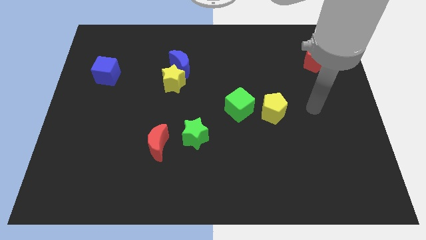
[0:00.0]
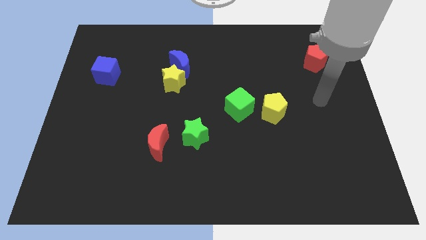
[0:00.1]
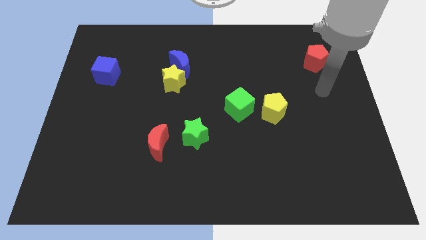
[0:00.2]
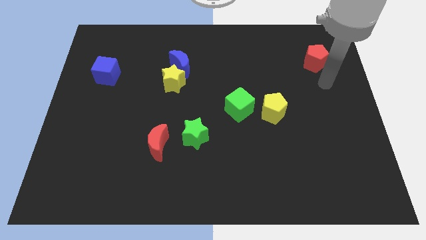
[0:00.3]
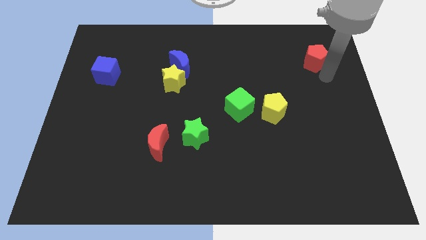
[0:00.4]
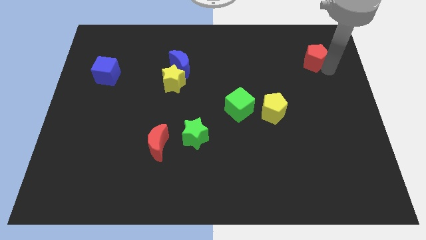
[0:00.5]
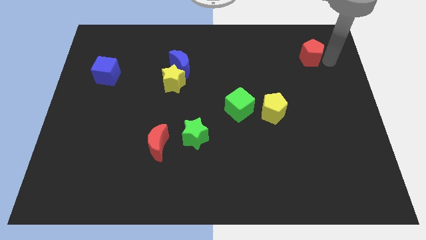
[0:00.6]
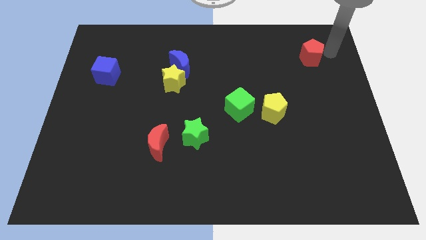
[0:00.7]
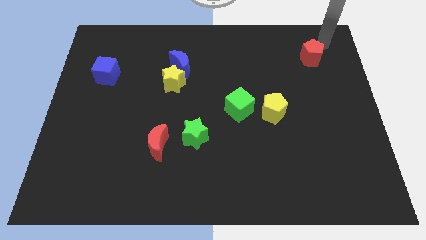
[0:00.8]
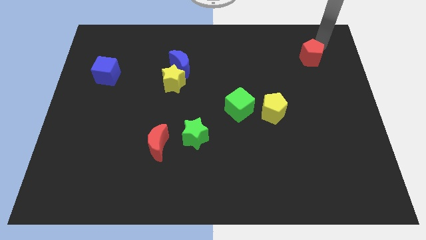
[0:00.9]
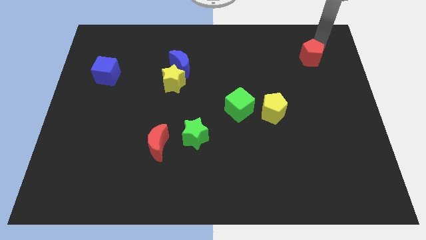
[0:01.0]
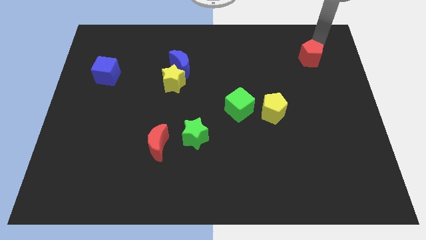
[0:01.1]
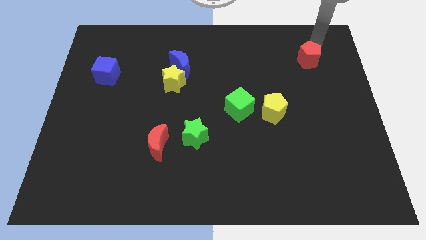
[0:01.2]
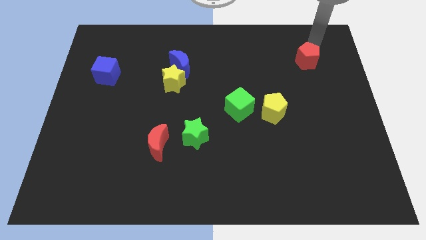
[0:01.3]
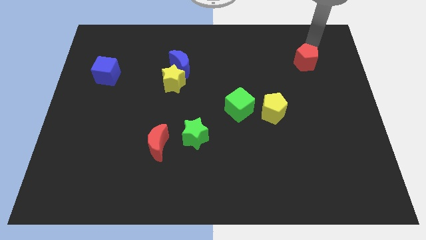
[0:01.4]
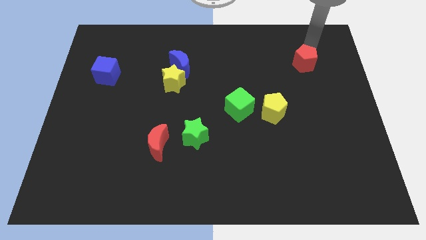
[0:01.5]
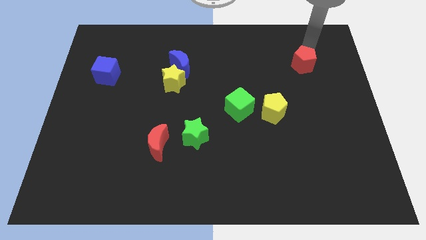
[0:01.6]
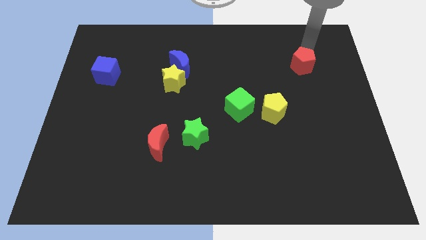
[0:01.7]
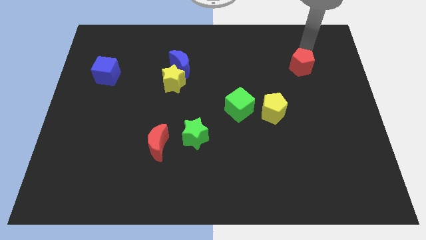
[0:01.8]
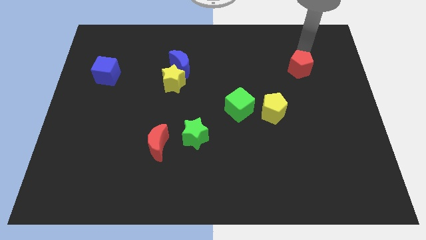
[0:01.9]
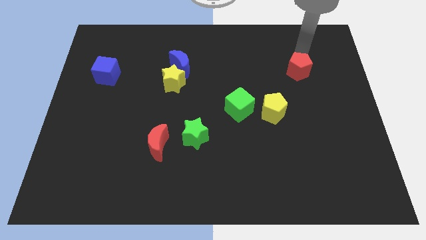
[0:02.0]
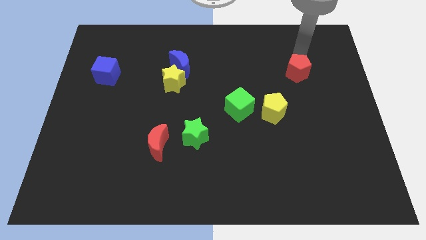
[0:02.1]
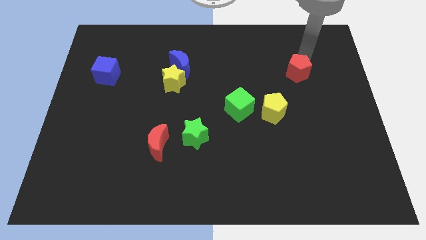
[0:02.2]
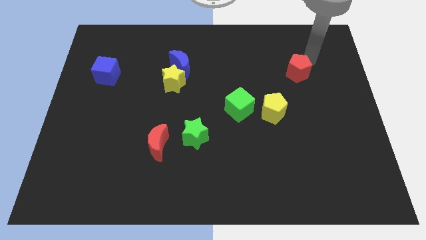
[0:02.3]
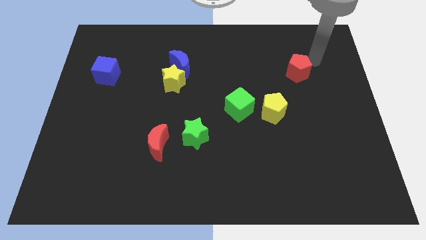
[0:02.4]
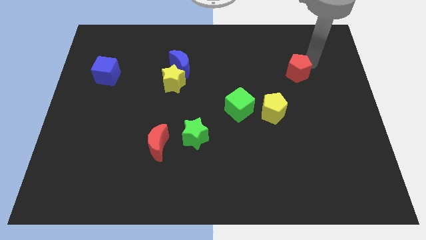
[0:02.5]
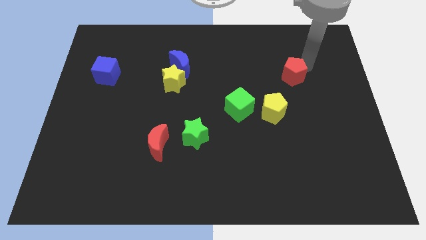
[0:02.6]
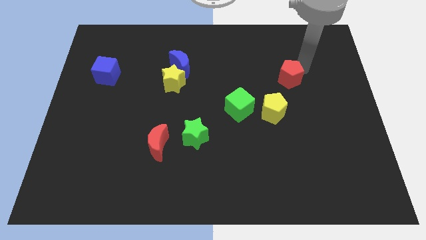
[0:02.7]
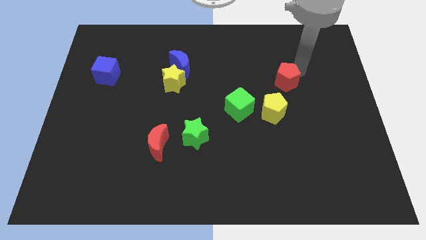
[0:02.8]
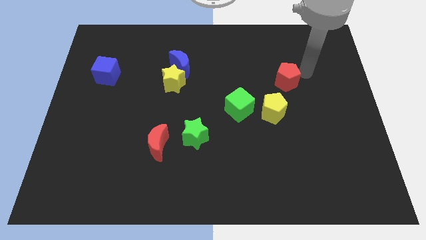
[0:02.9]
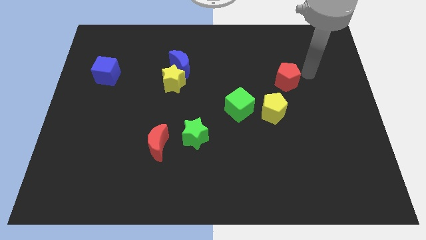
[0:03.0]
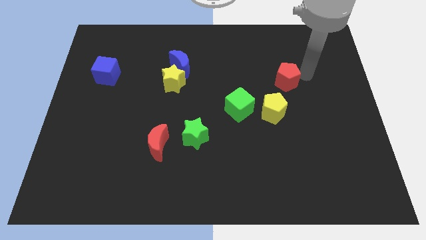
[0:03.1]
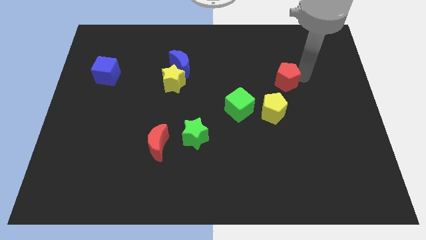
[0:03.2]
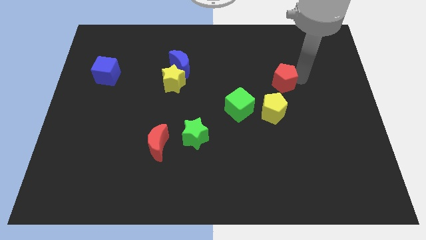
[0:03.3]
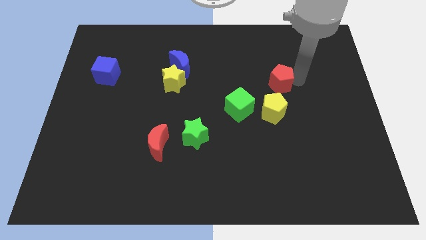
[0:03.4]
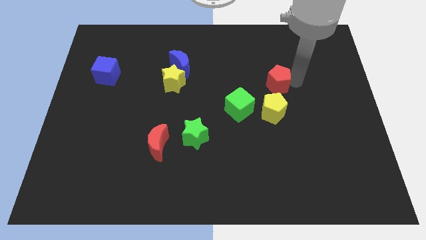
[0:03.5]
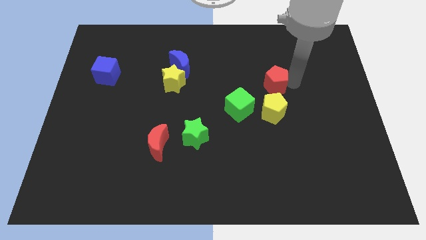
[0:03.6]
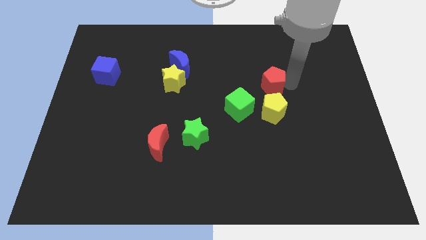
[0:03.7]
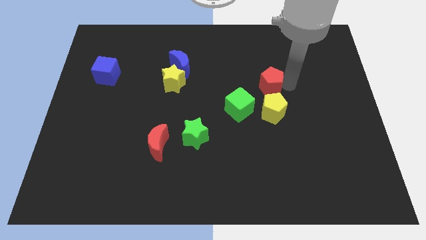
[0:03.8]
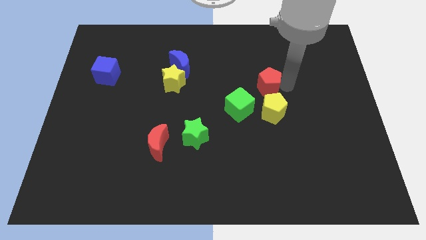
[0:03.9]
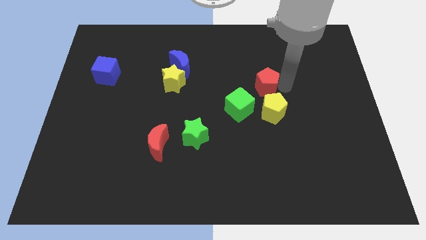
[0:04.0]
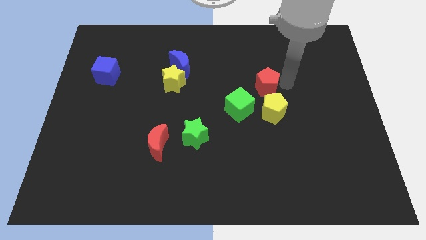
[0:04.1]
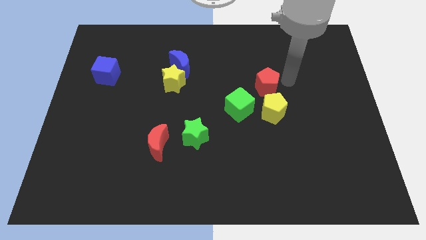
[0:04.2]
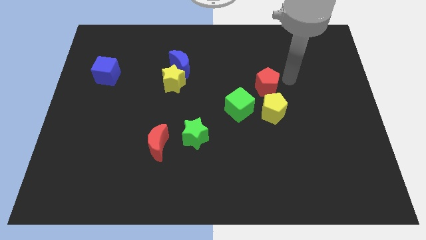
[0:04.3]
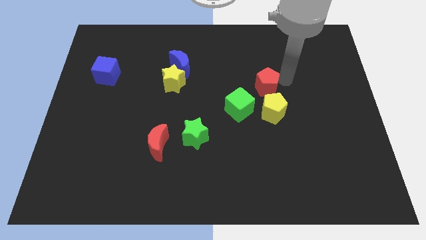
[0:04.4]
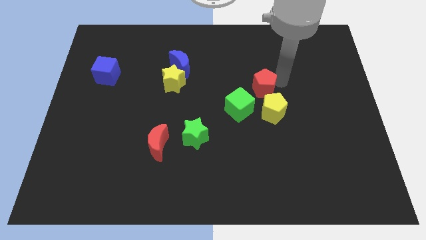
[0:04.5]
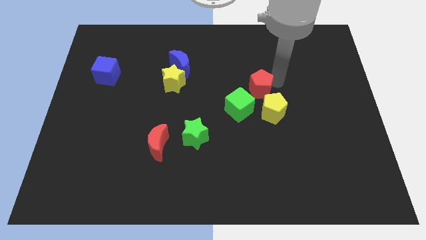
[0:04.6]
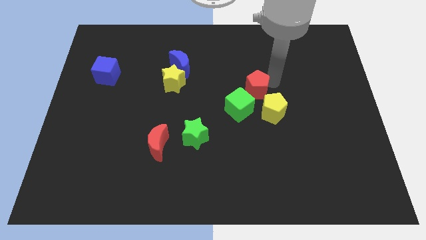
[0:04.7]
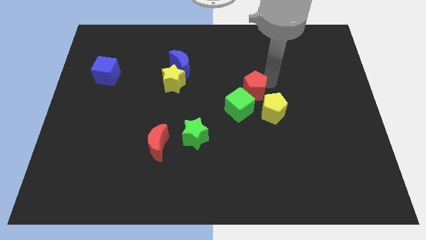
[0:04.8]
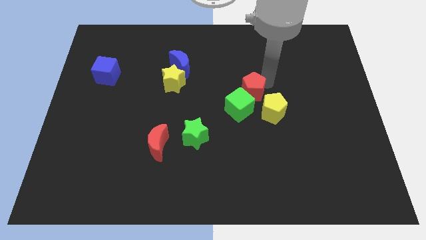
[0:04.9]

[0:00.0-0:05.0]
move the red pentagon next to the green cube

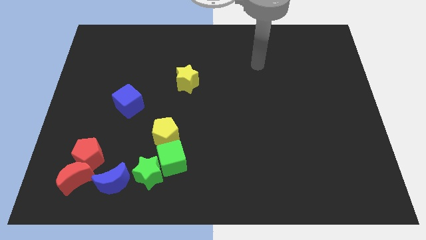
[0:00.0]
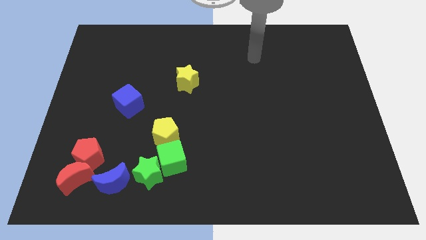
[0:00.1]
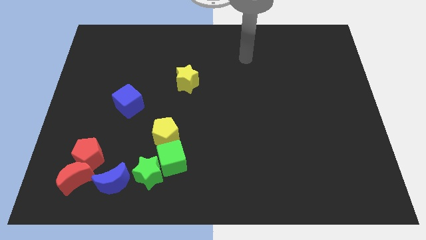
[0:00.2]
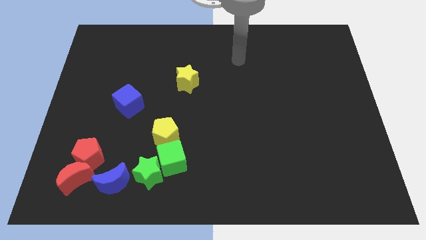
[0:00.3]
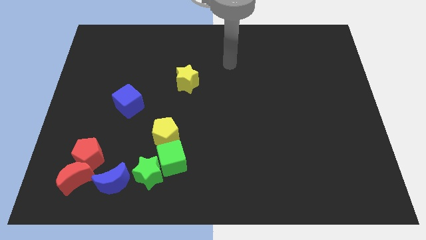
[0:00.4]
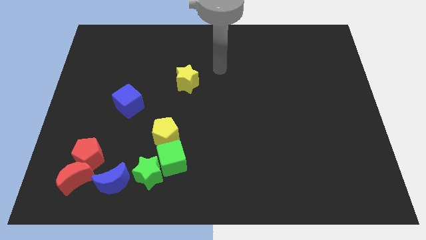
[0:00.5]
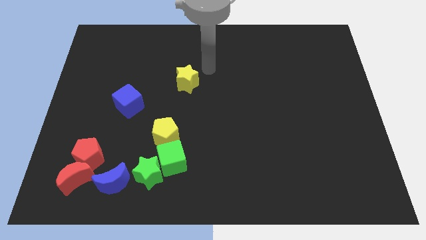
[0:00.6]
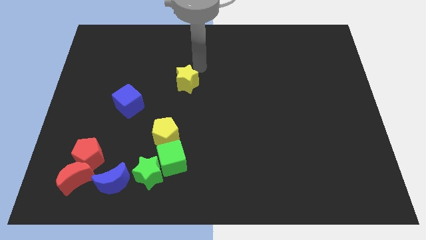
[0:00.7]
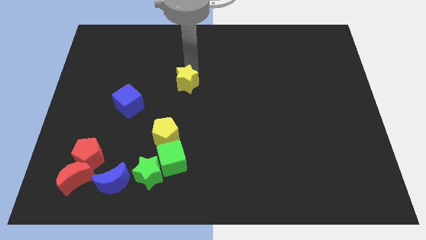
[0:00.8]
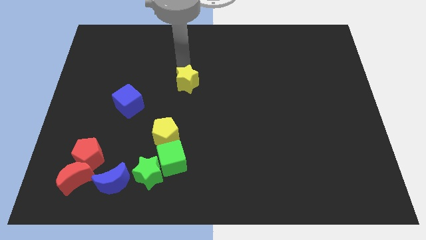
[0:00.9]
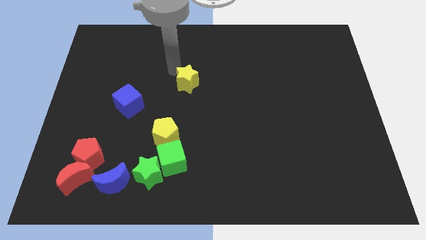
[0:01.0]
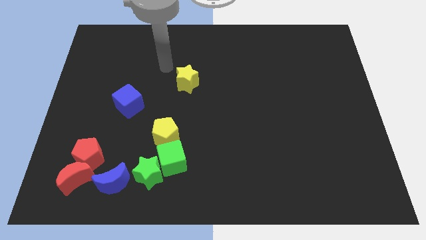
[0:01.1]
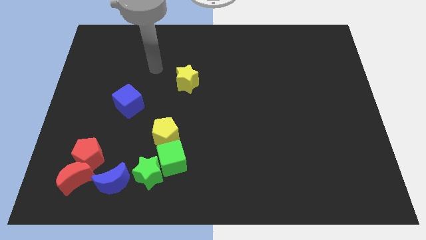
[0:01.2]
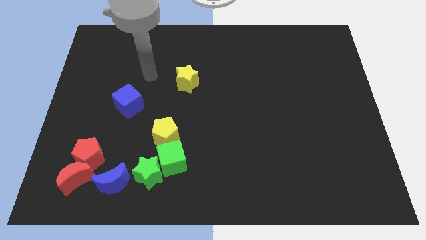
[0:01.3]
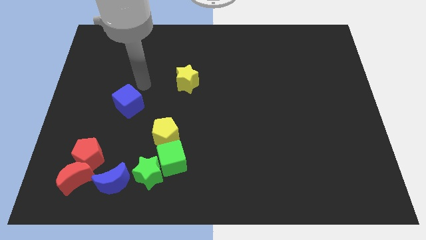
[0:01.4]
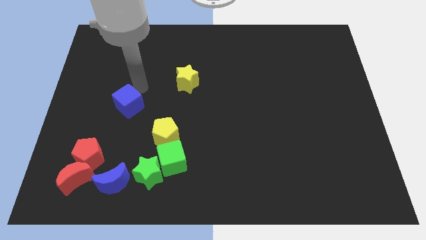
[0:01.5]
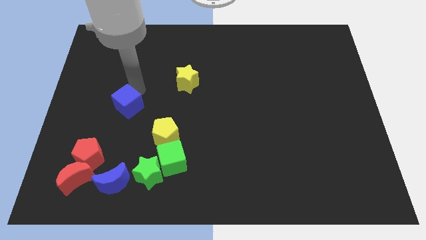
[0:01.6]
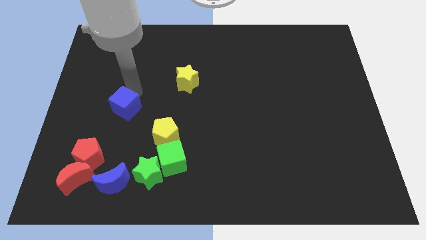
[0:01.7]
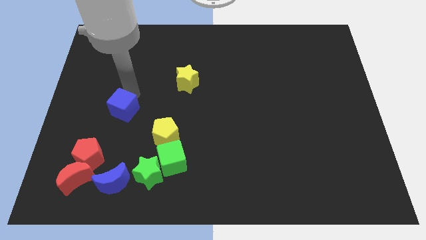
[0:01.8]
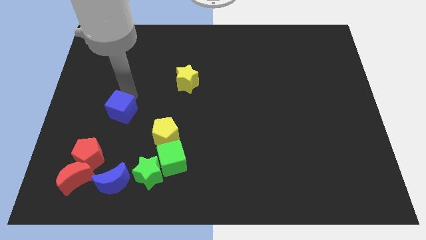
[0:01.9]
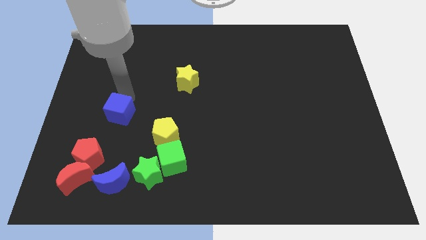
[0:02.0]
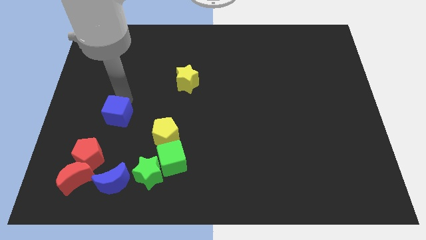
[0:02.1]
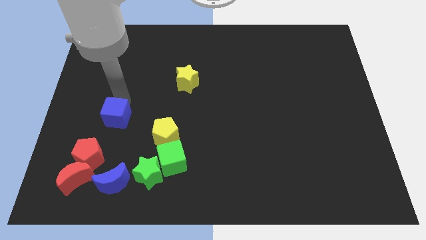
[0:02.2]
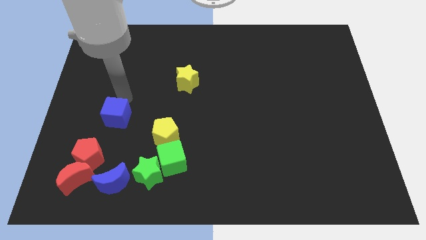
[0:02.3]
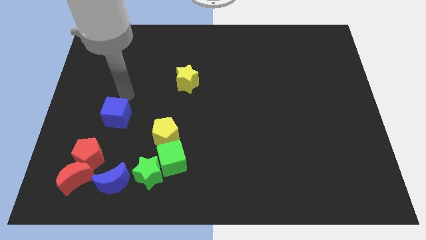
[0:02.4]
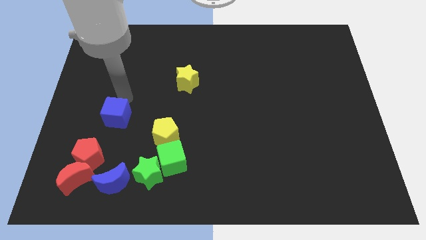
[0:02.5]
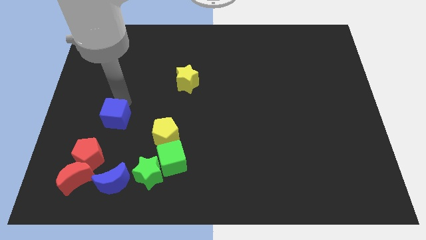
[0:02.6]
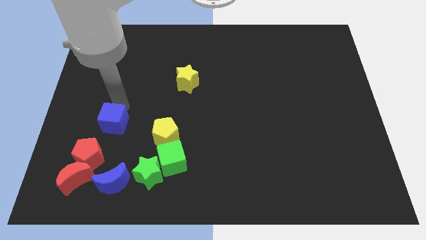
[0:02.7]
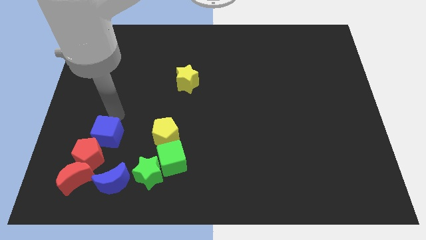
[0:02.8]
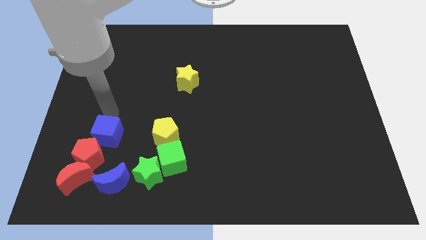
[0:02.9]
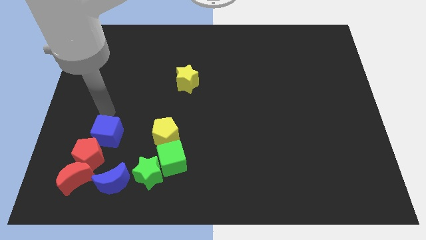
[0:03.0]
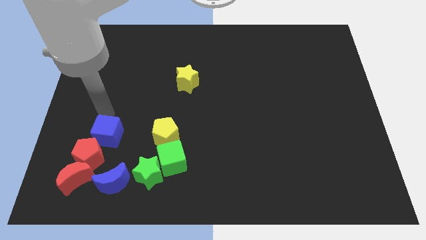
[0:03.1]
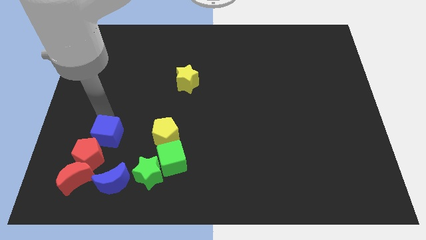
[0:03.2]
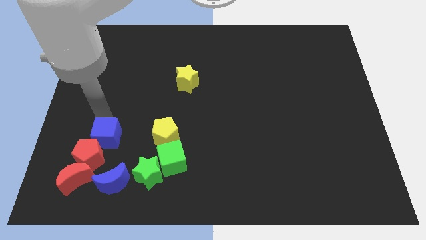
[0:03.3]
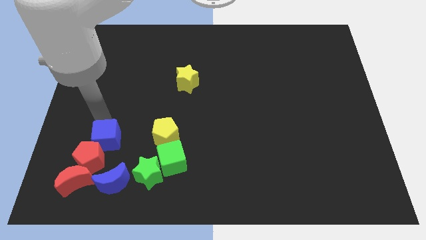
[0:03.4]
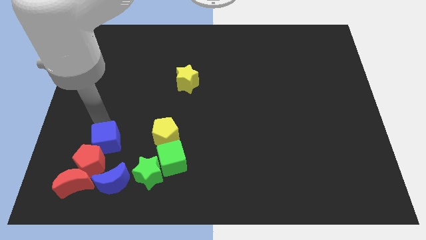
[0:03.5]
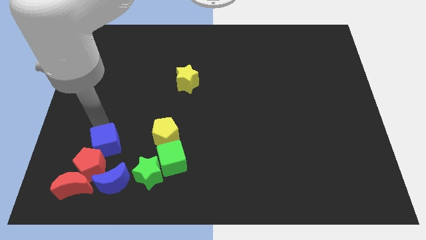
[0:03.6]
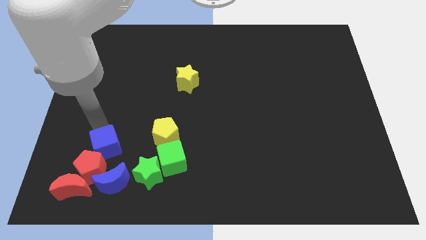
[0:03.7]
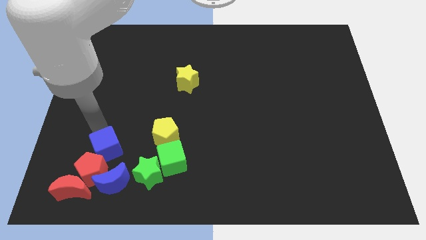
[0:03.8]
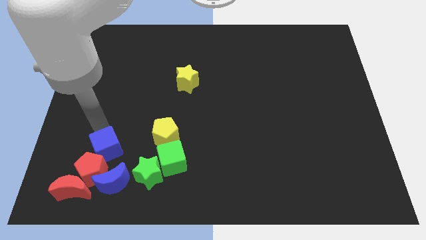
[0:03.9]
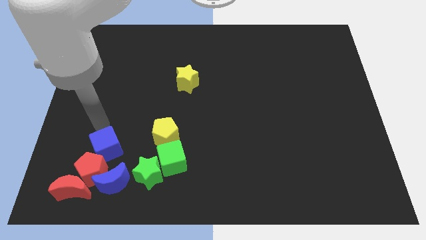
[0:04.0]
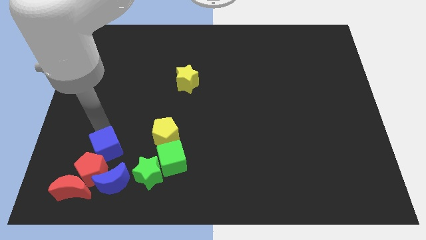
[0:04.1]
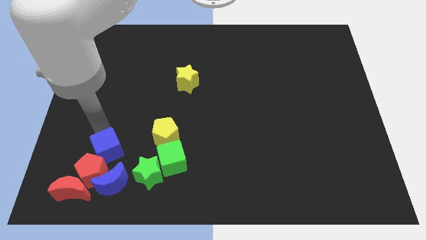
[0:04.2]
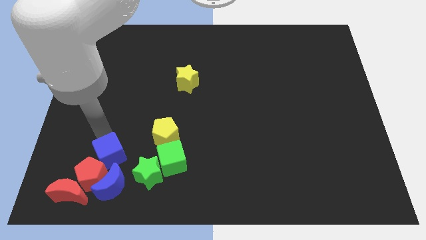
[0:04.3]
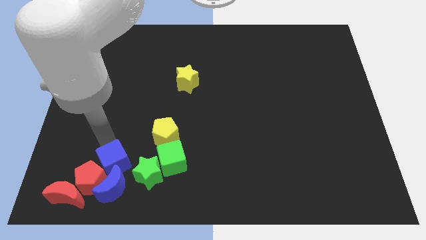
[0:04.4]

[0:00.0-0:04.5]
slide the blue cube to the blue moon
